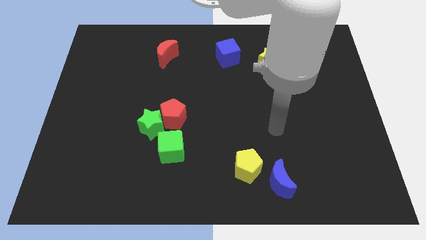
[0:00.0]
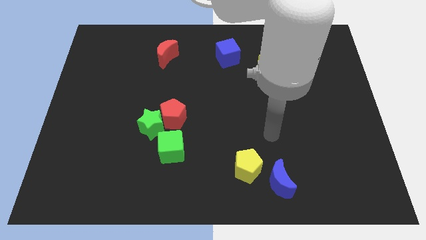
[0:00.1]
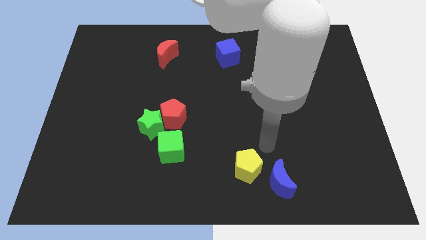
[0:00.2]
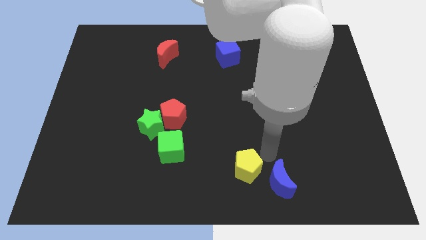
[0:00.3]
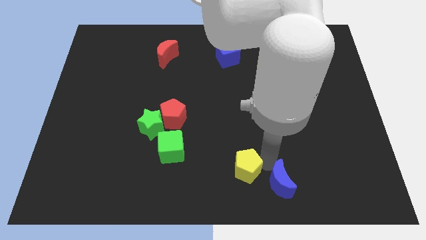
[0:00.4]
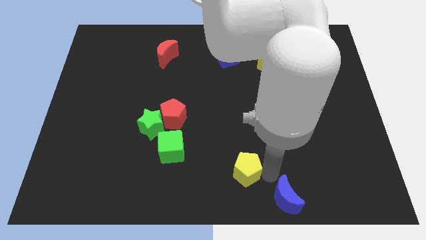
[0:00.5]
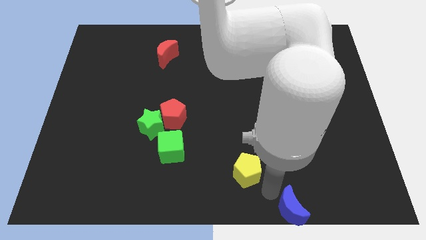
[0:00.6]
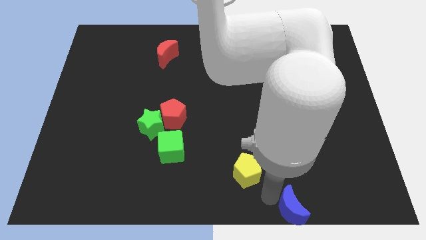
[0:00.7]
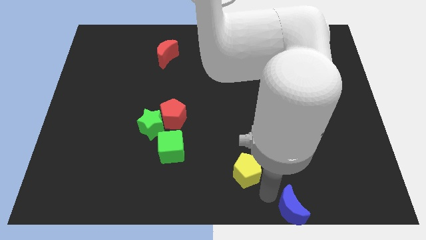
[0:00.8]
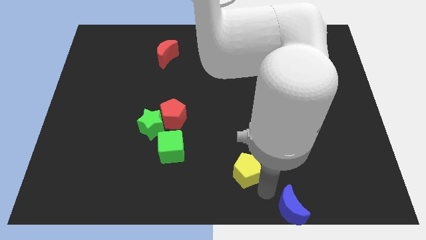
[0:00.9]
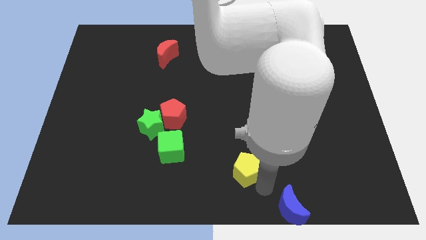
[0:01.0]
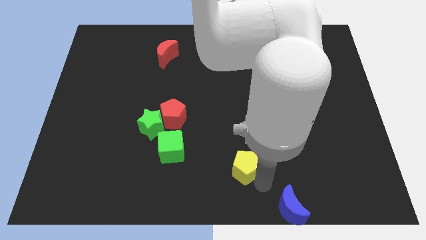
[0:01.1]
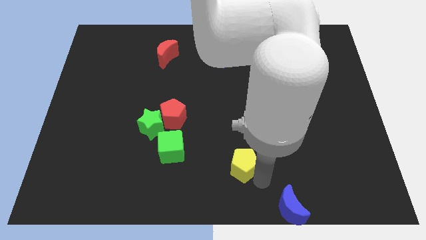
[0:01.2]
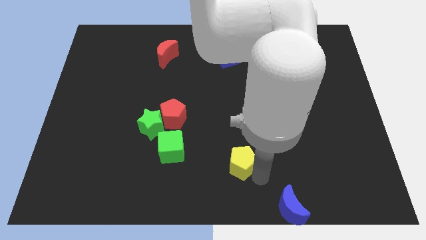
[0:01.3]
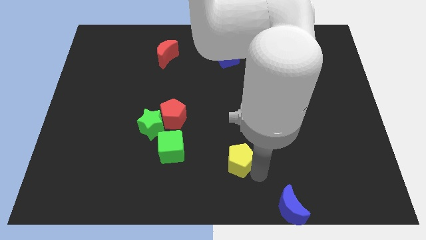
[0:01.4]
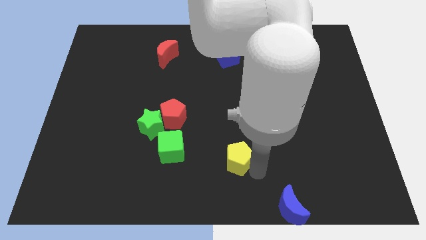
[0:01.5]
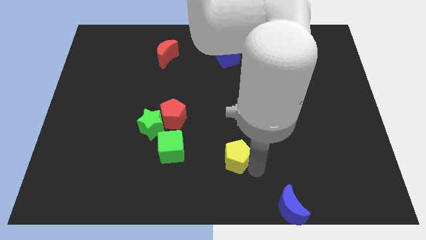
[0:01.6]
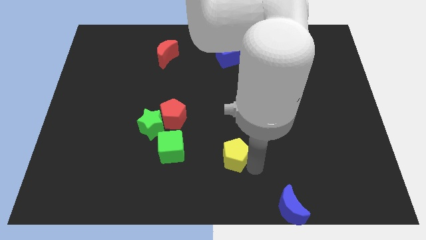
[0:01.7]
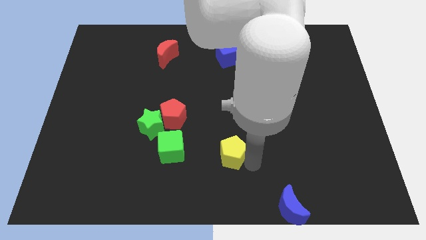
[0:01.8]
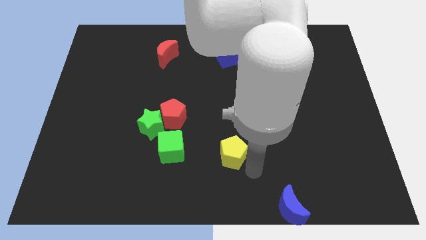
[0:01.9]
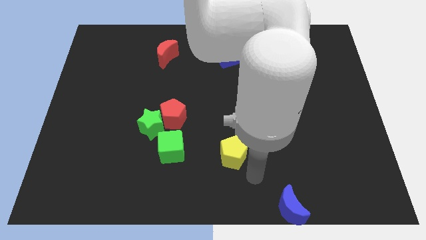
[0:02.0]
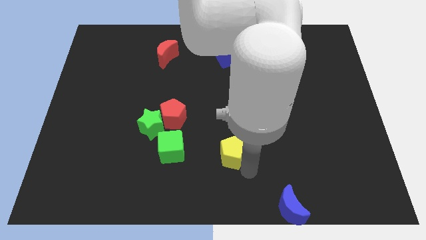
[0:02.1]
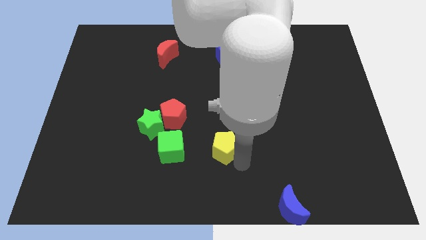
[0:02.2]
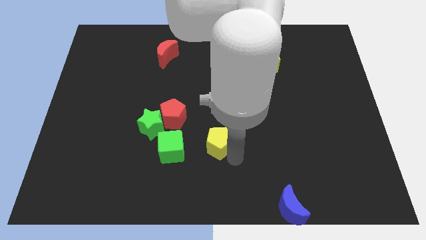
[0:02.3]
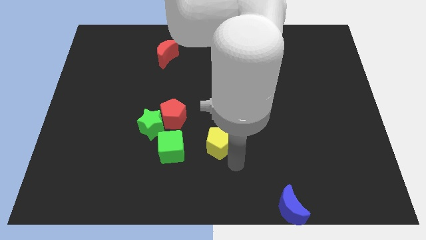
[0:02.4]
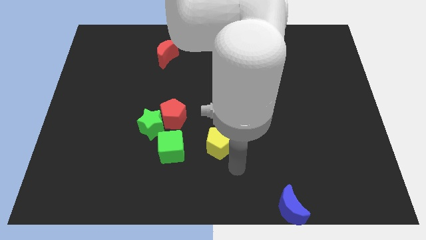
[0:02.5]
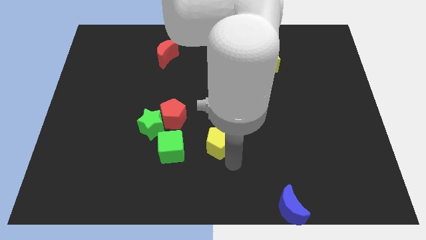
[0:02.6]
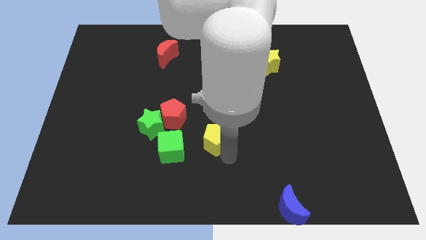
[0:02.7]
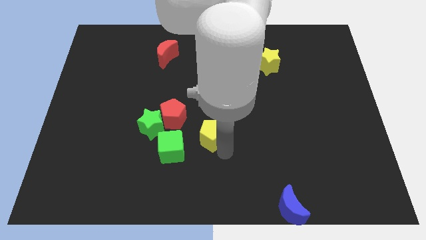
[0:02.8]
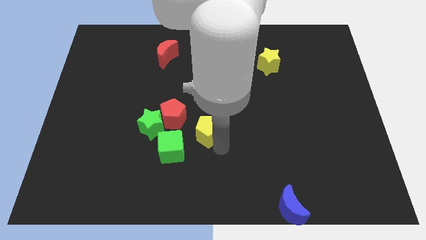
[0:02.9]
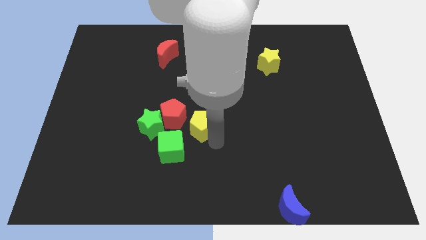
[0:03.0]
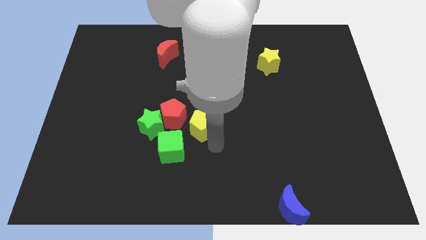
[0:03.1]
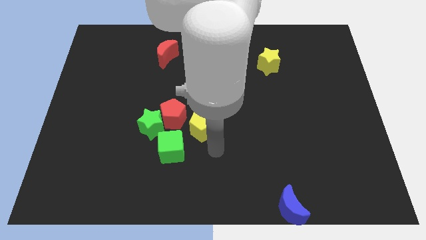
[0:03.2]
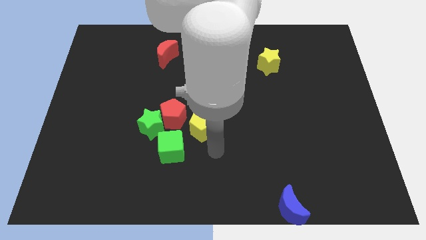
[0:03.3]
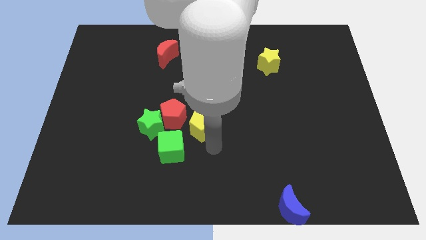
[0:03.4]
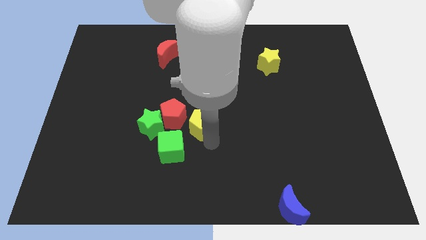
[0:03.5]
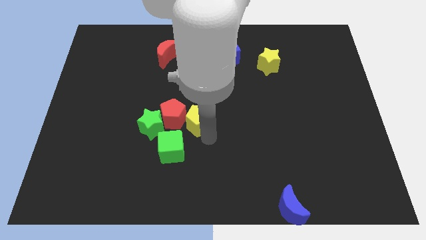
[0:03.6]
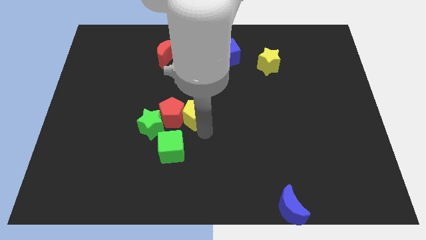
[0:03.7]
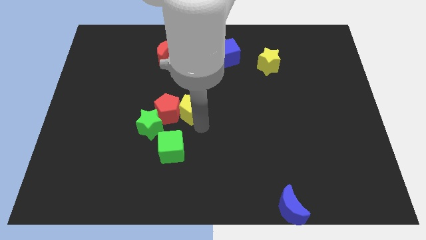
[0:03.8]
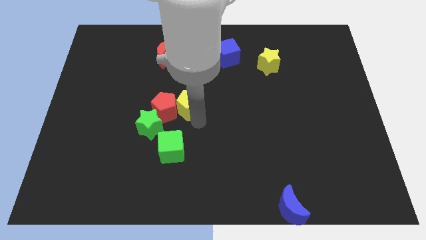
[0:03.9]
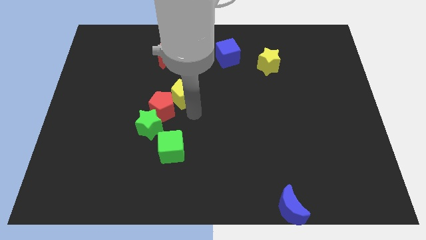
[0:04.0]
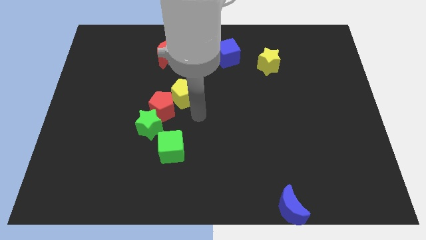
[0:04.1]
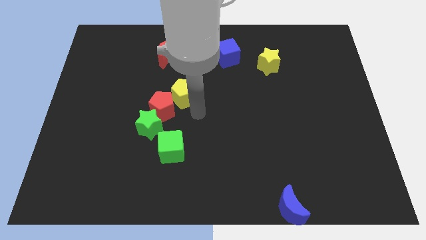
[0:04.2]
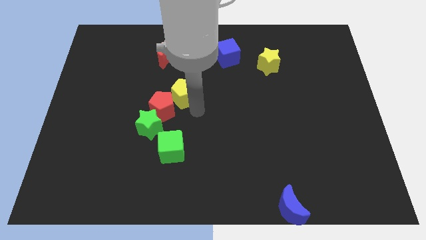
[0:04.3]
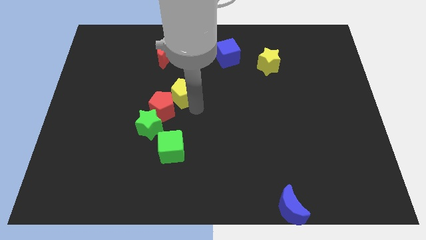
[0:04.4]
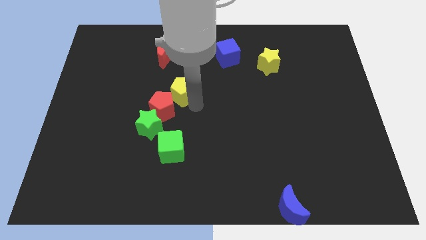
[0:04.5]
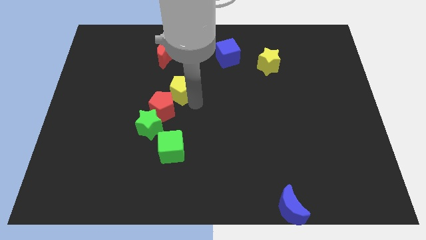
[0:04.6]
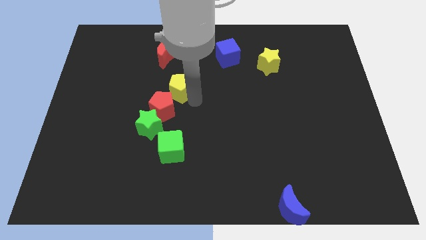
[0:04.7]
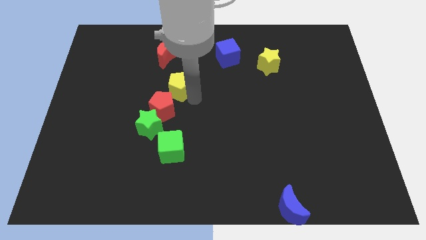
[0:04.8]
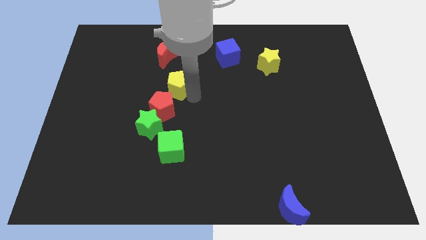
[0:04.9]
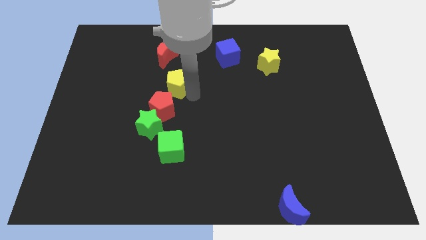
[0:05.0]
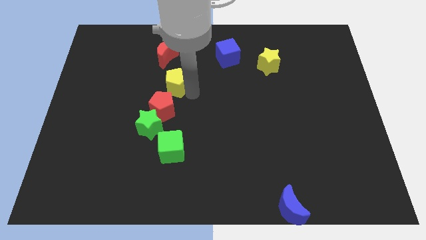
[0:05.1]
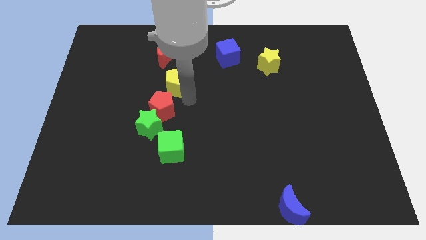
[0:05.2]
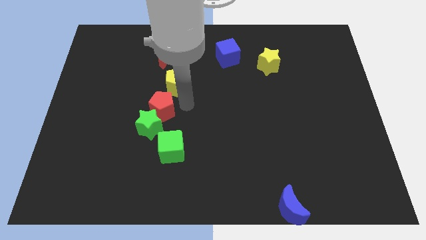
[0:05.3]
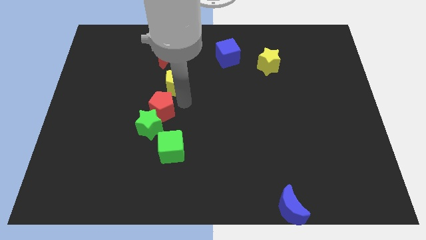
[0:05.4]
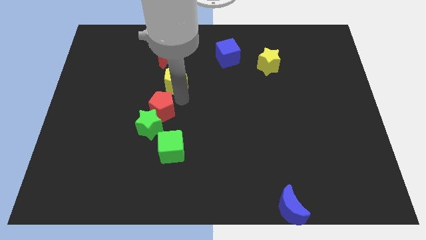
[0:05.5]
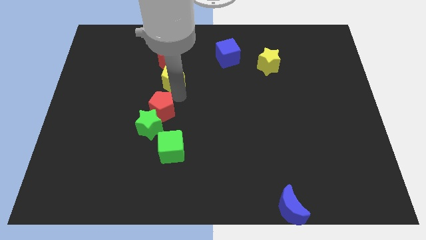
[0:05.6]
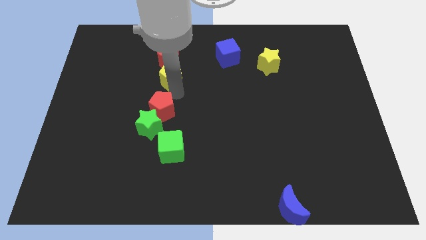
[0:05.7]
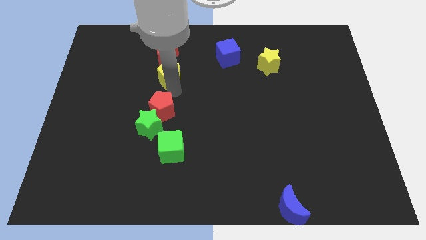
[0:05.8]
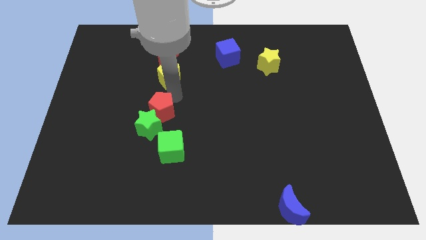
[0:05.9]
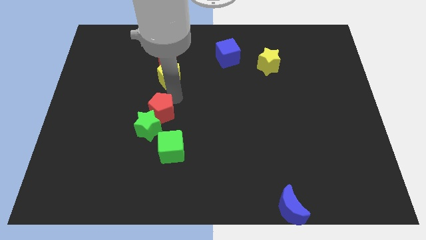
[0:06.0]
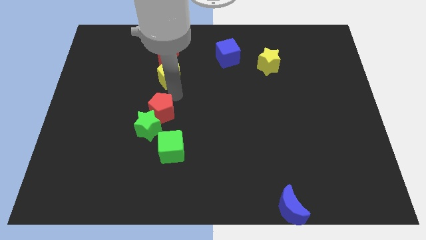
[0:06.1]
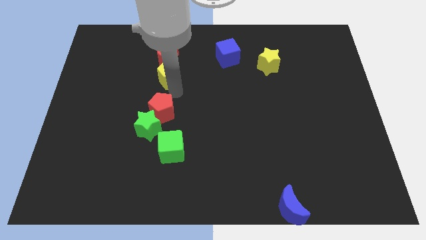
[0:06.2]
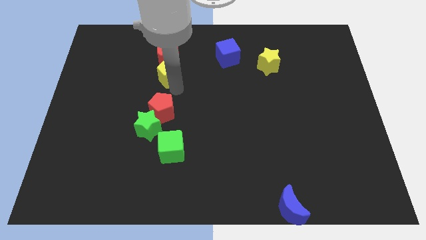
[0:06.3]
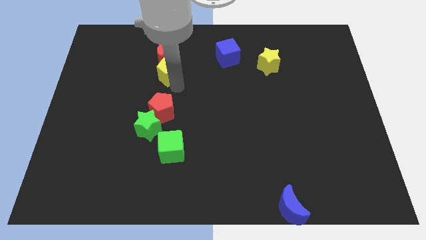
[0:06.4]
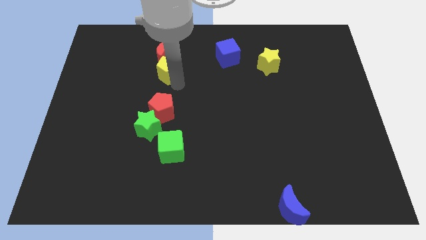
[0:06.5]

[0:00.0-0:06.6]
put the yellow pentagon next to the red moon
